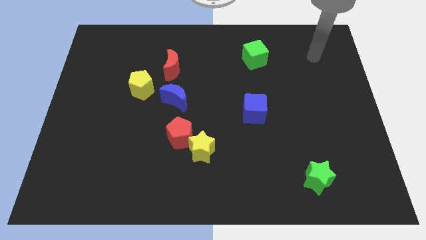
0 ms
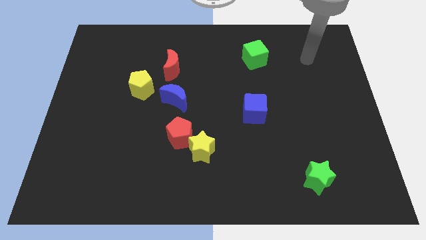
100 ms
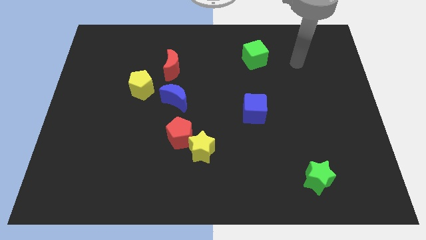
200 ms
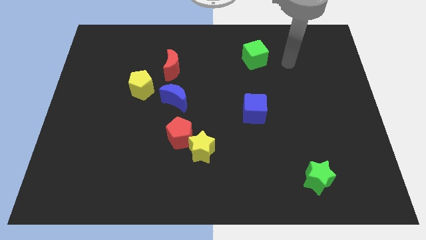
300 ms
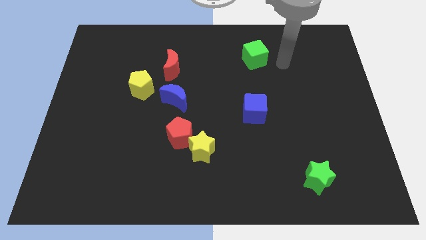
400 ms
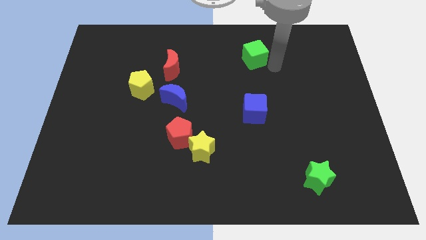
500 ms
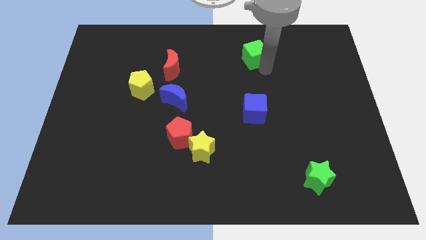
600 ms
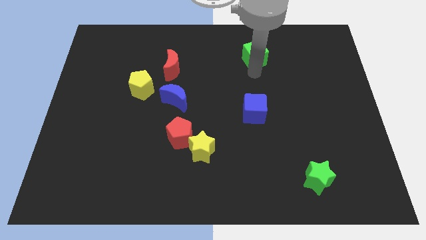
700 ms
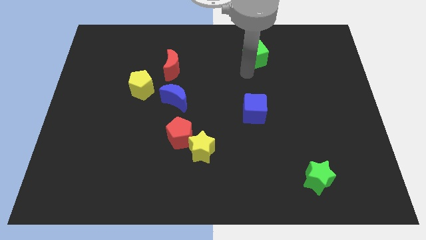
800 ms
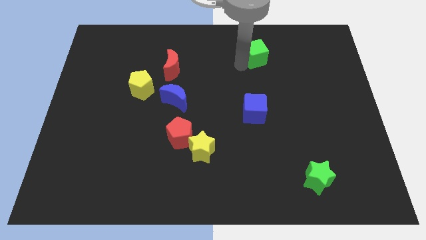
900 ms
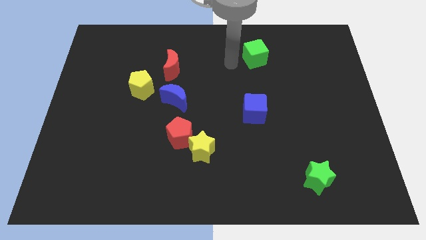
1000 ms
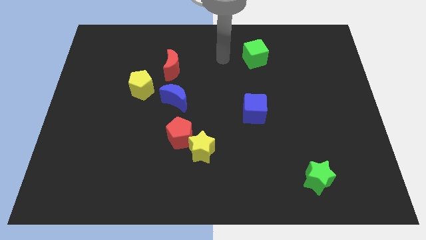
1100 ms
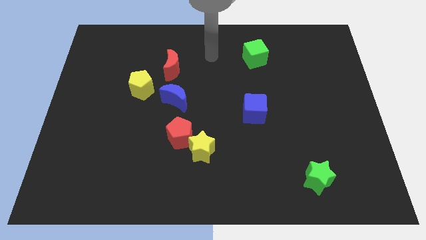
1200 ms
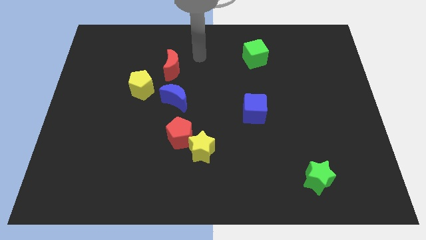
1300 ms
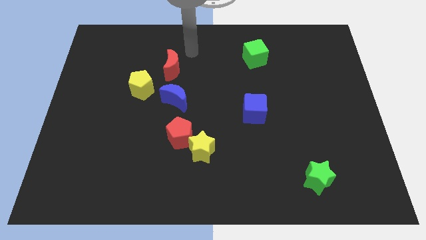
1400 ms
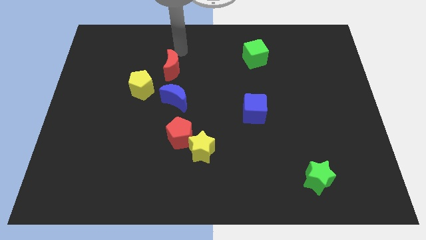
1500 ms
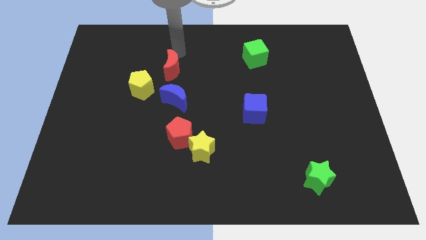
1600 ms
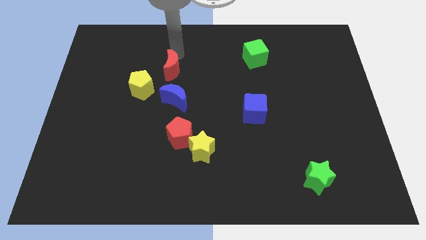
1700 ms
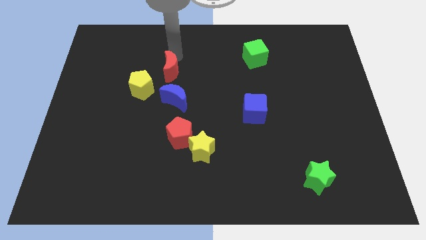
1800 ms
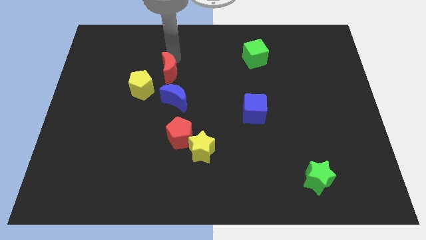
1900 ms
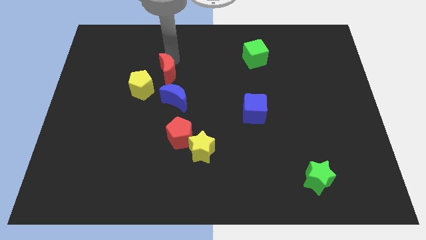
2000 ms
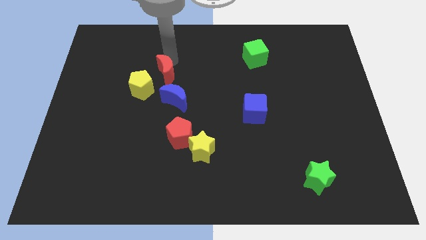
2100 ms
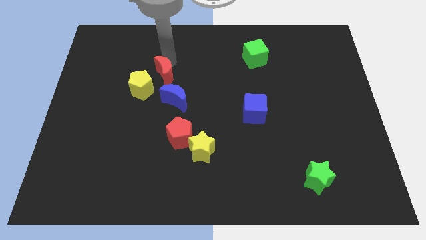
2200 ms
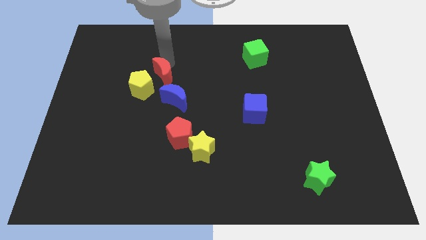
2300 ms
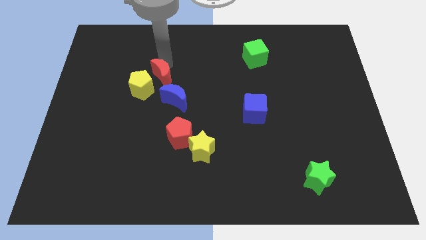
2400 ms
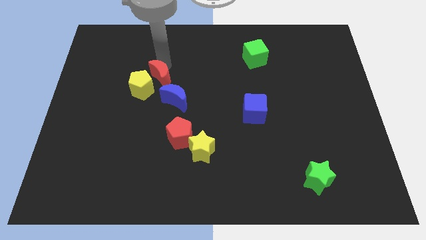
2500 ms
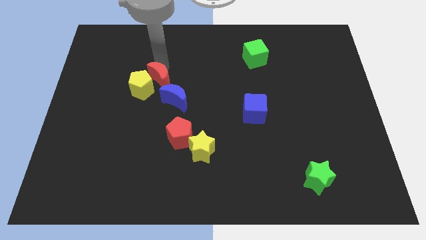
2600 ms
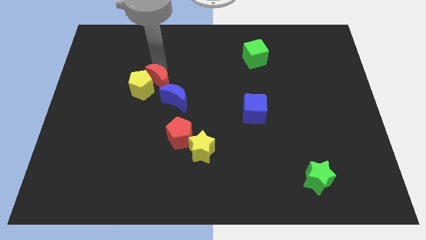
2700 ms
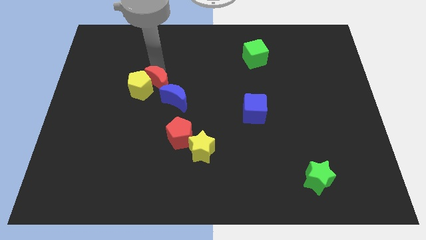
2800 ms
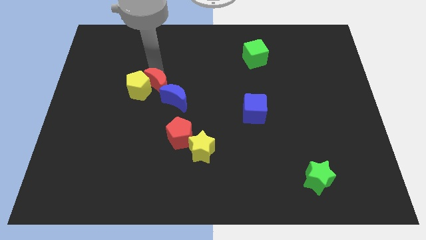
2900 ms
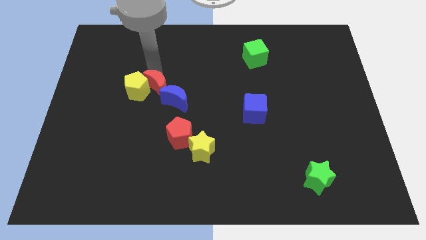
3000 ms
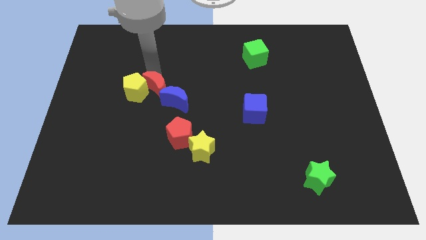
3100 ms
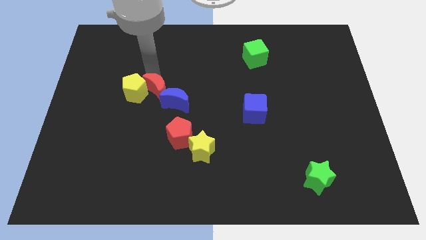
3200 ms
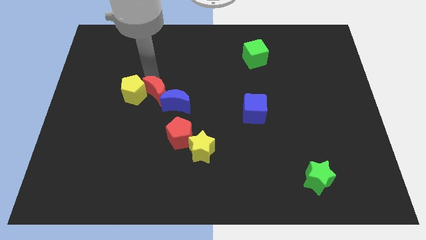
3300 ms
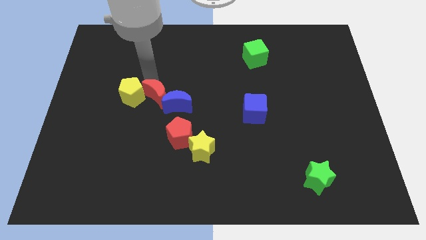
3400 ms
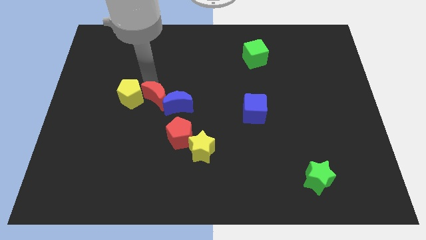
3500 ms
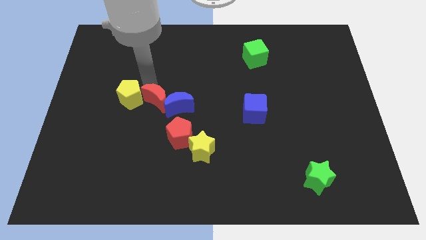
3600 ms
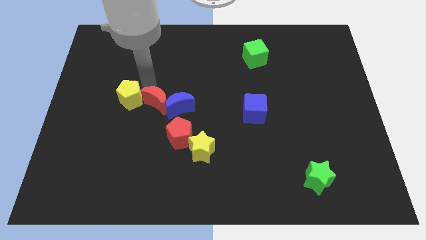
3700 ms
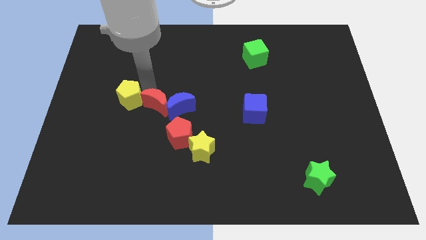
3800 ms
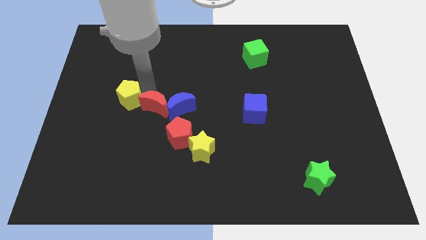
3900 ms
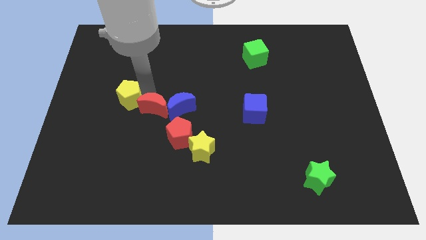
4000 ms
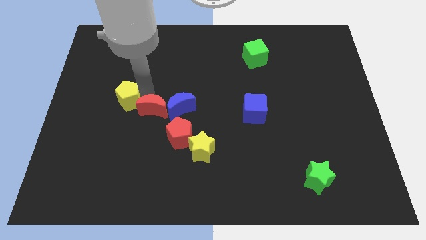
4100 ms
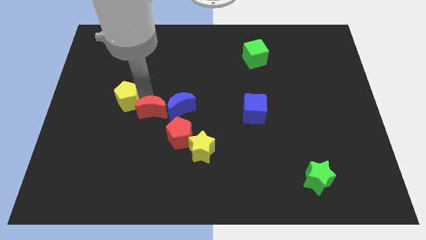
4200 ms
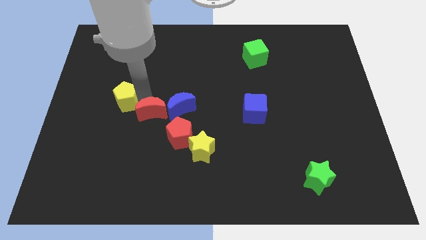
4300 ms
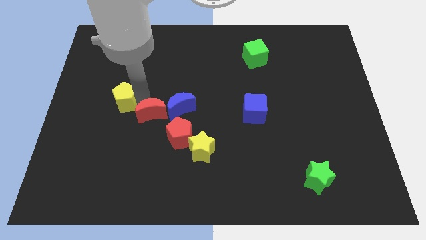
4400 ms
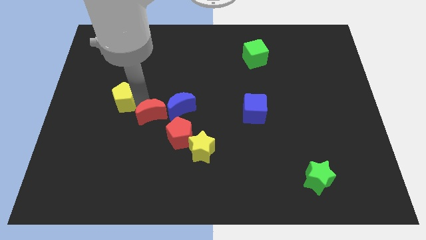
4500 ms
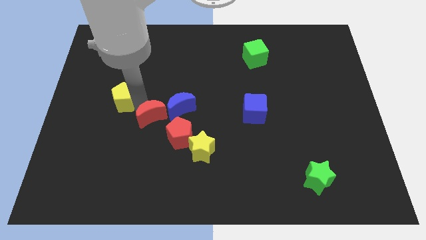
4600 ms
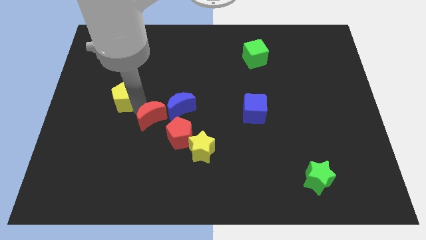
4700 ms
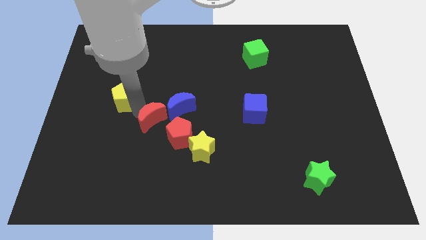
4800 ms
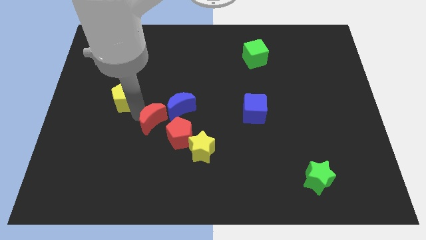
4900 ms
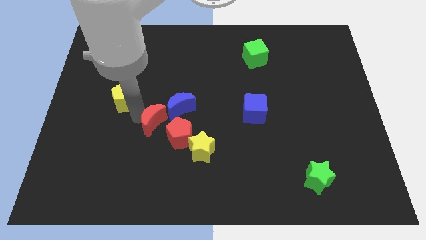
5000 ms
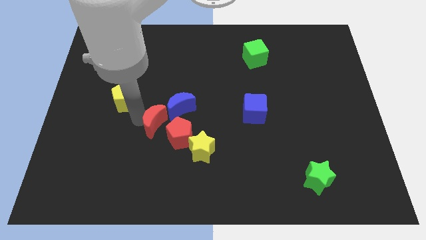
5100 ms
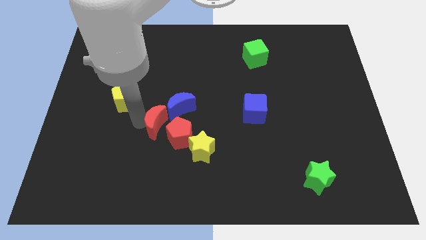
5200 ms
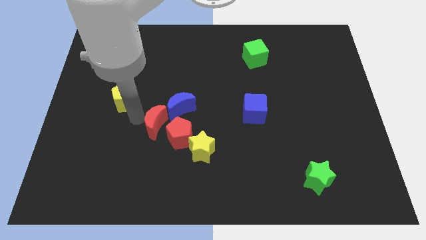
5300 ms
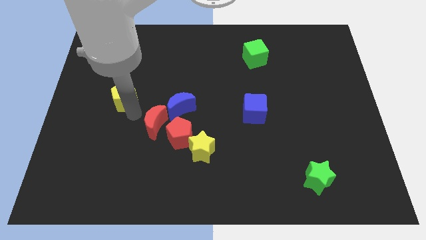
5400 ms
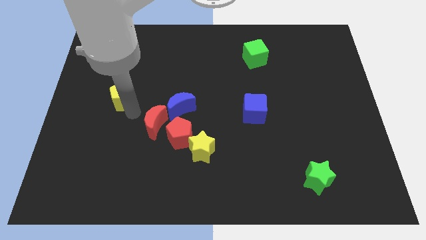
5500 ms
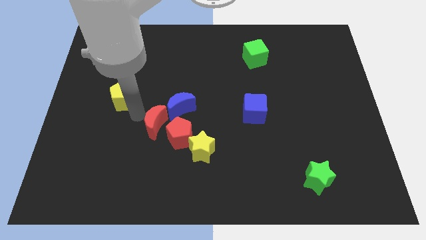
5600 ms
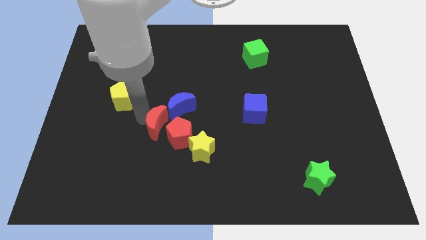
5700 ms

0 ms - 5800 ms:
push the red moon towards the red pentagon

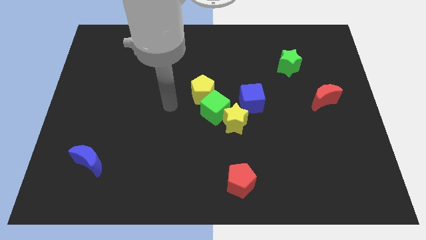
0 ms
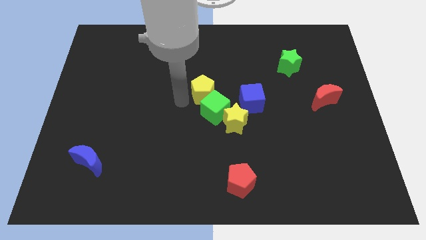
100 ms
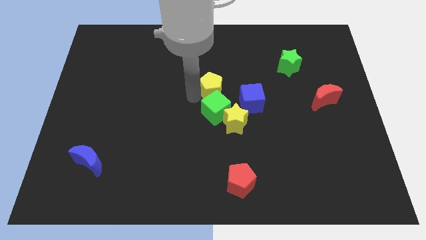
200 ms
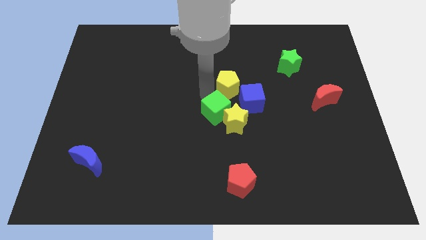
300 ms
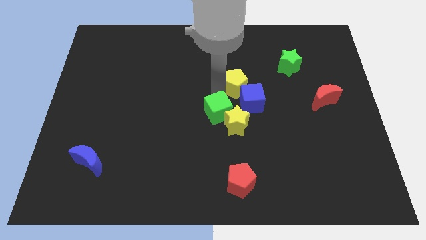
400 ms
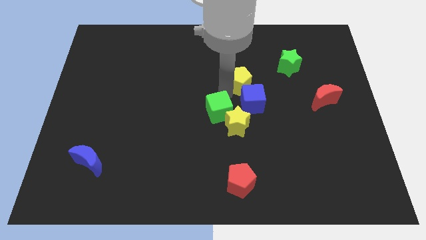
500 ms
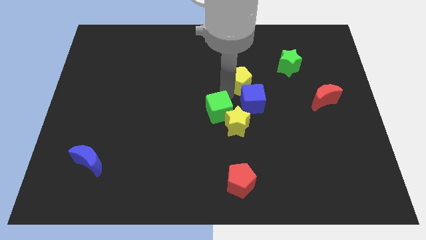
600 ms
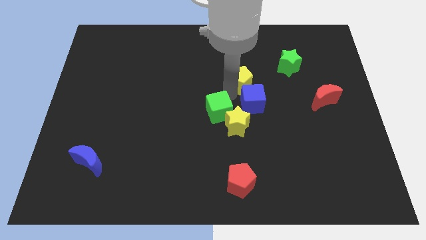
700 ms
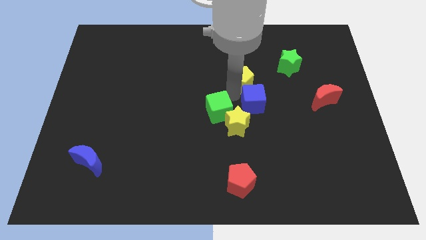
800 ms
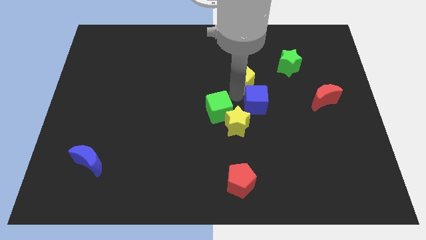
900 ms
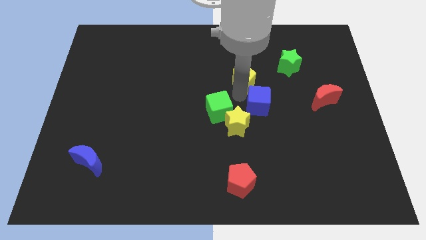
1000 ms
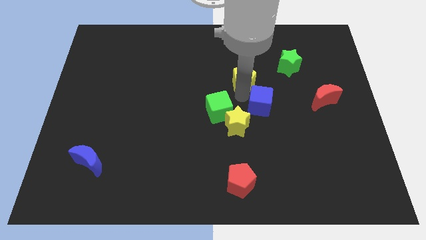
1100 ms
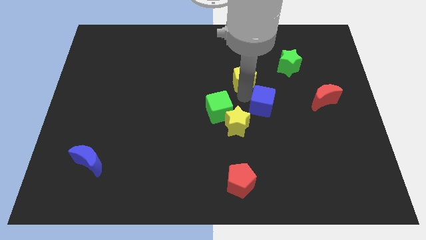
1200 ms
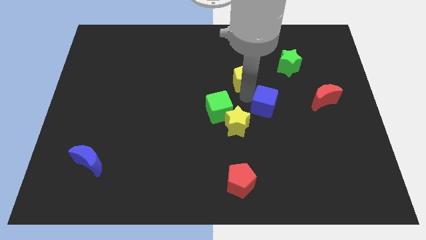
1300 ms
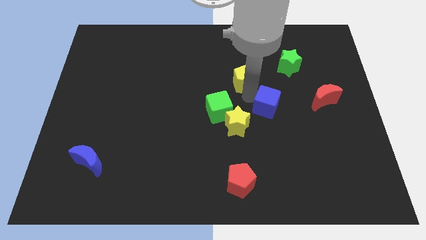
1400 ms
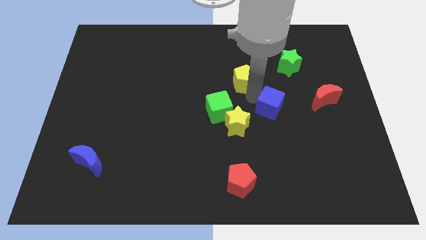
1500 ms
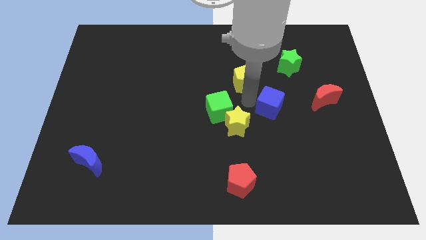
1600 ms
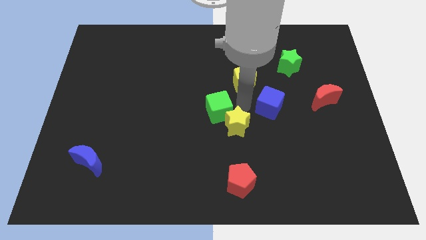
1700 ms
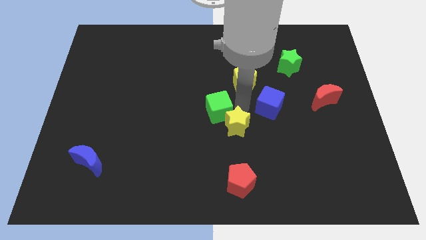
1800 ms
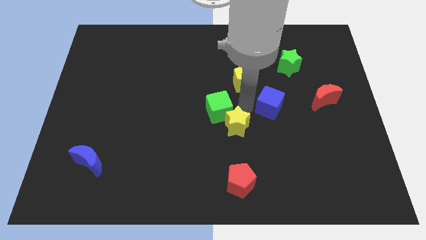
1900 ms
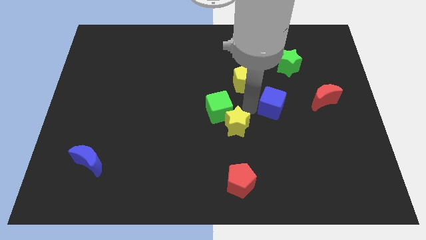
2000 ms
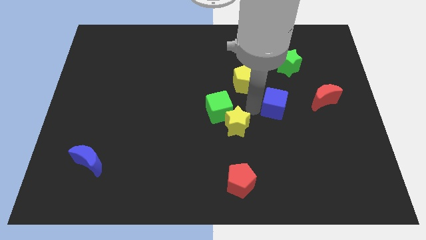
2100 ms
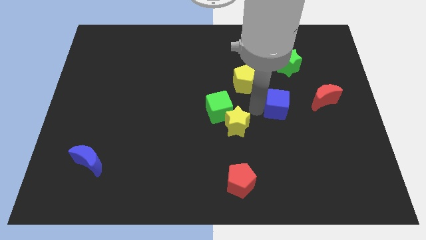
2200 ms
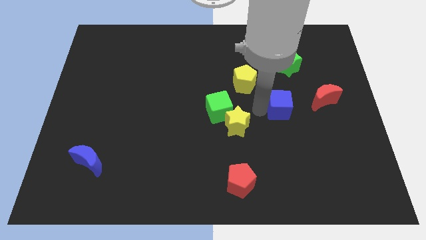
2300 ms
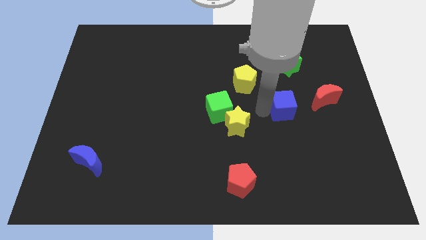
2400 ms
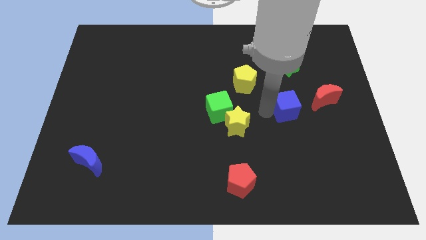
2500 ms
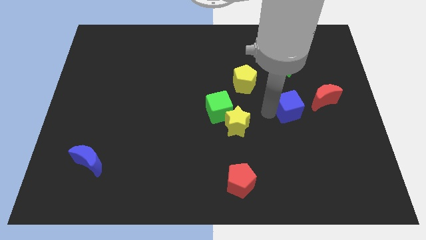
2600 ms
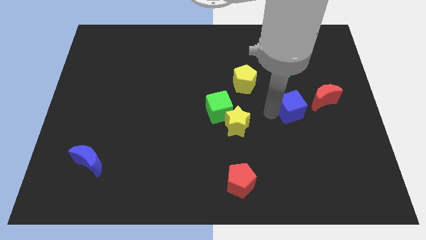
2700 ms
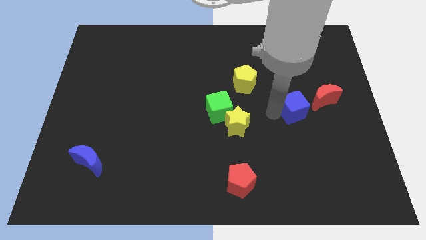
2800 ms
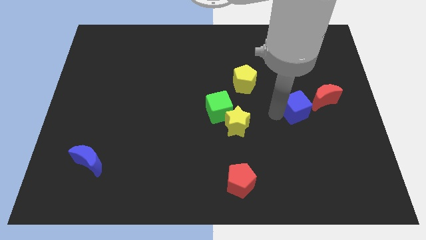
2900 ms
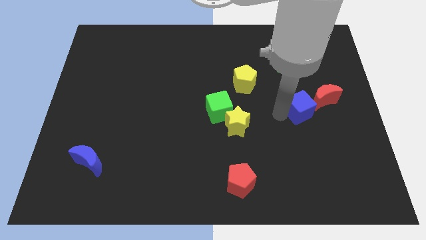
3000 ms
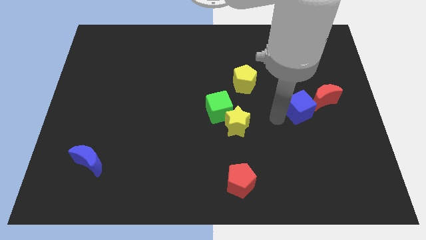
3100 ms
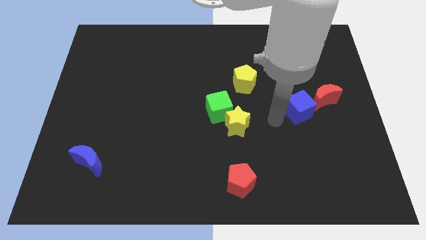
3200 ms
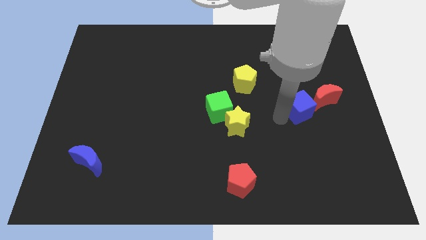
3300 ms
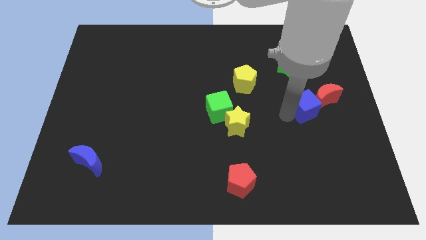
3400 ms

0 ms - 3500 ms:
push the blue cube towards the red moon
